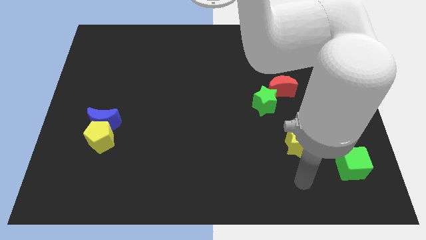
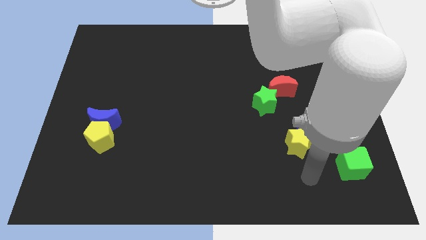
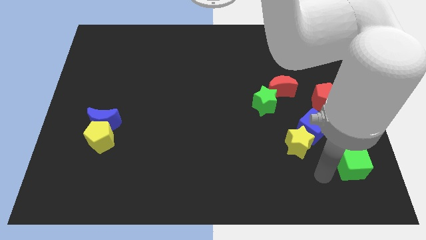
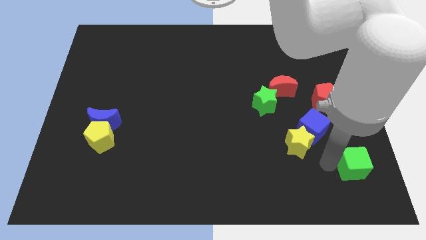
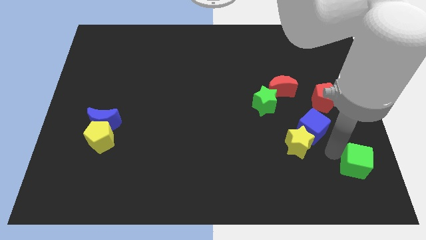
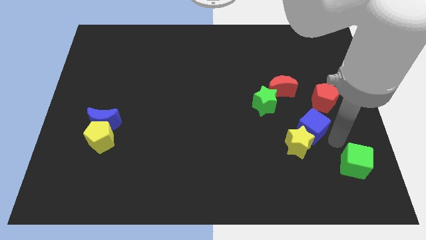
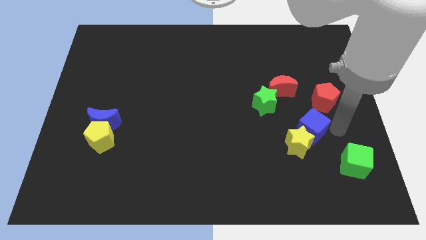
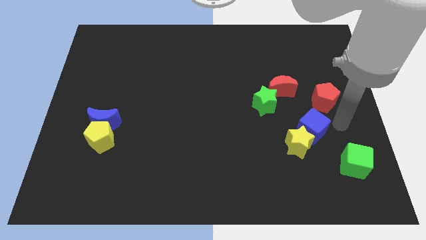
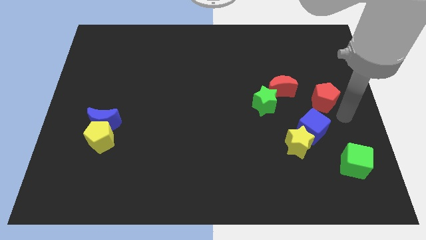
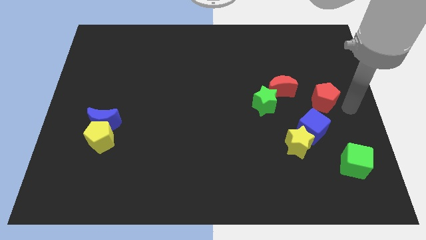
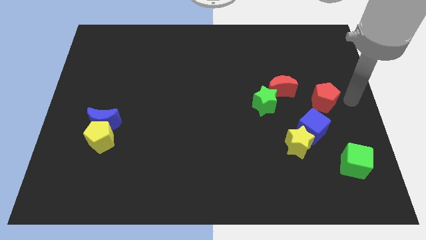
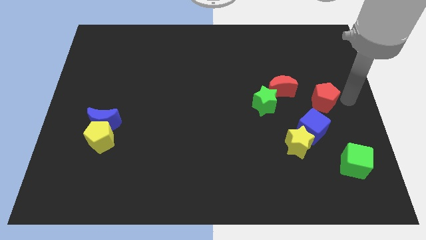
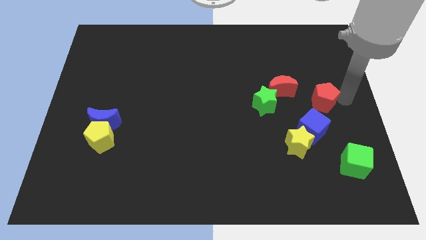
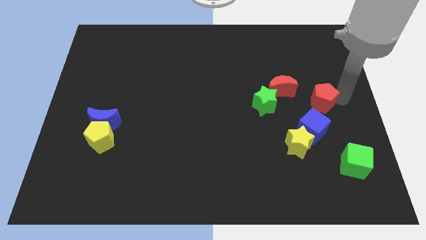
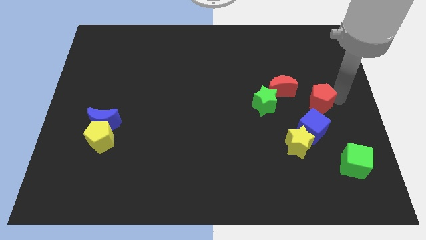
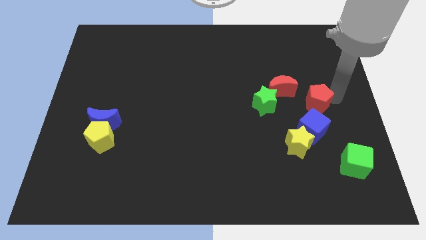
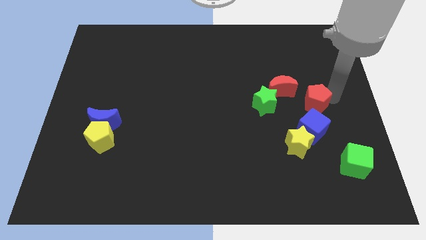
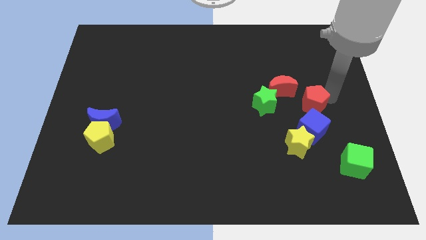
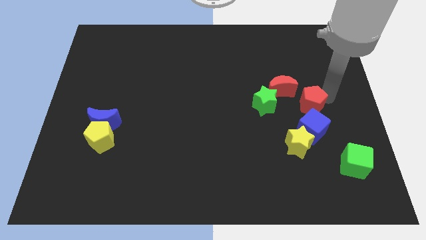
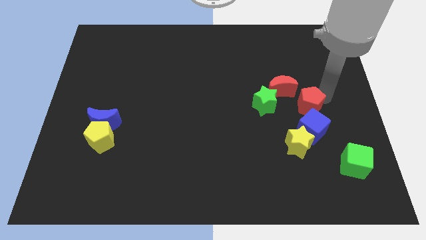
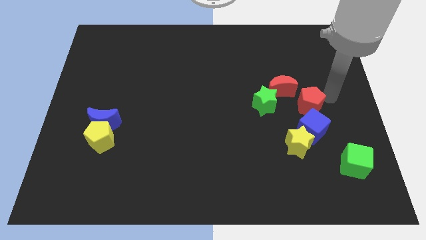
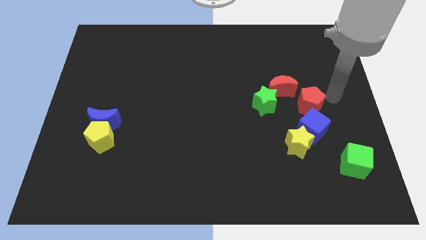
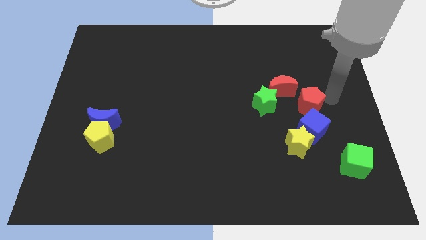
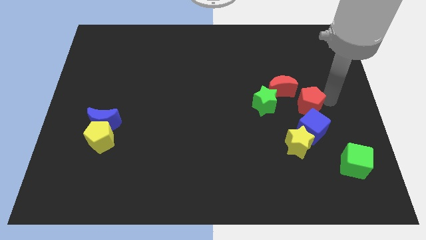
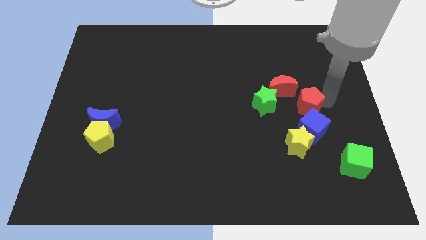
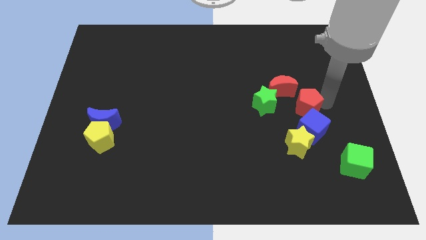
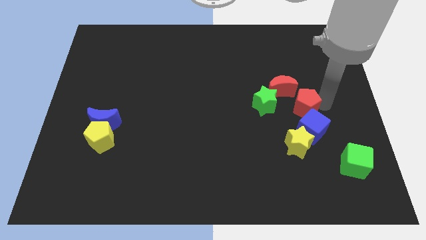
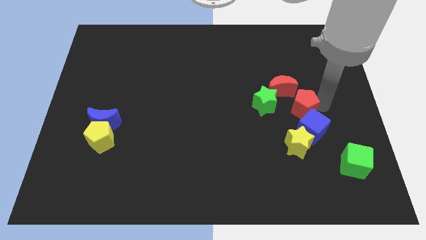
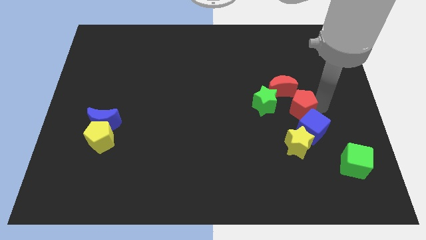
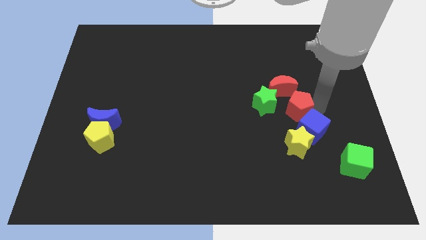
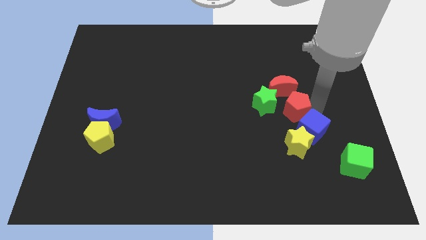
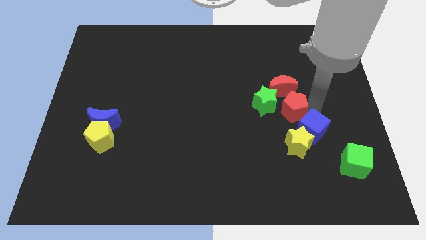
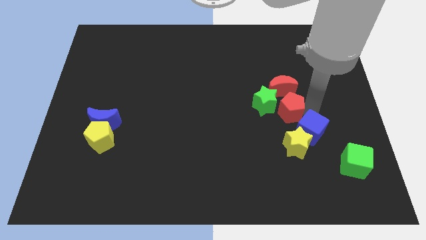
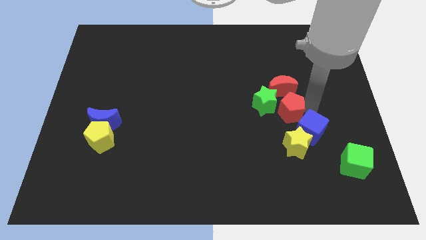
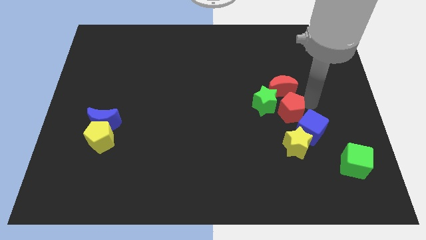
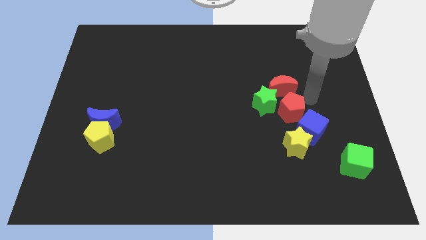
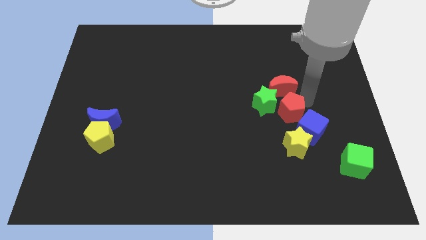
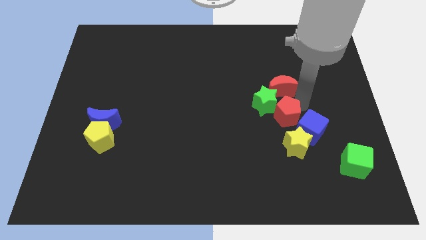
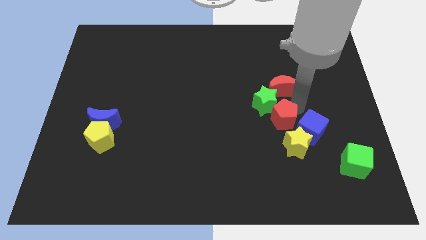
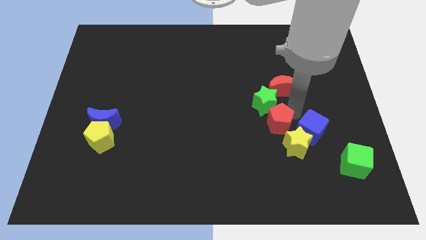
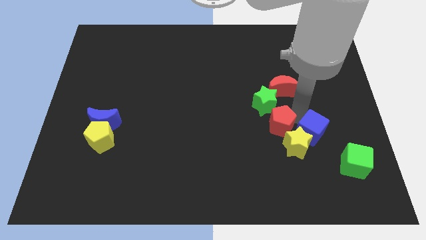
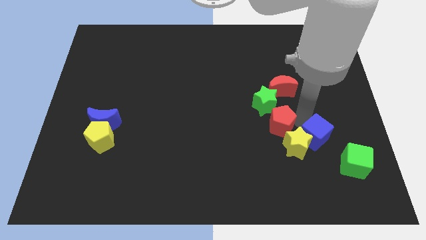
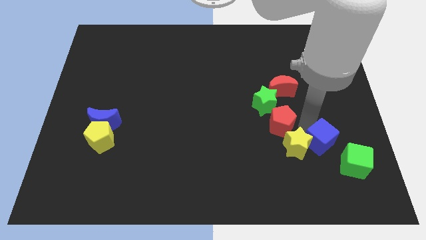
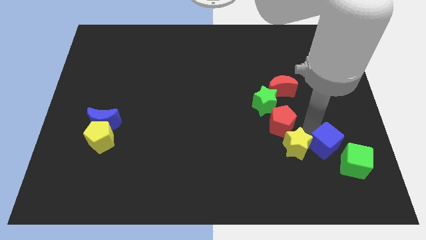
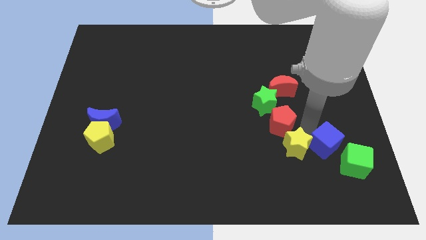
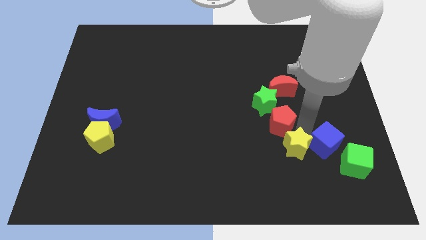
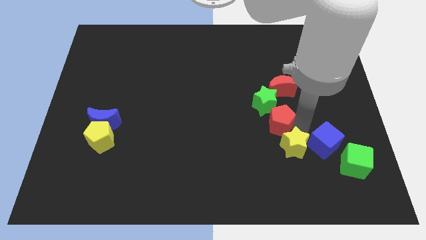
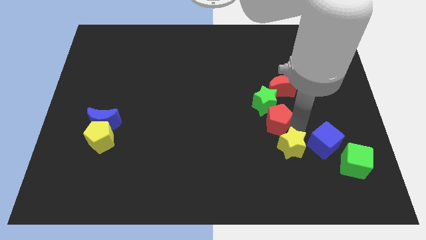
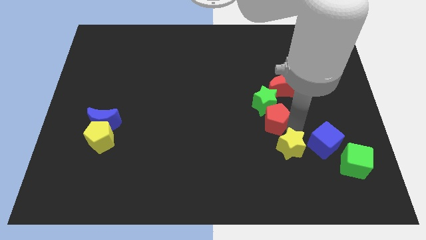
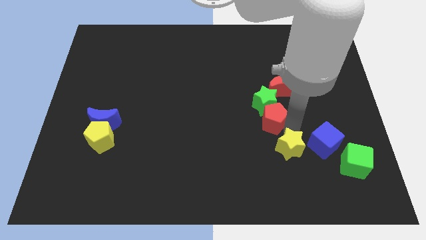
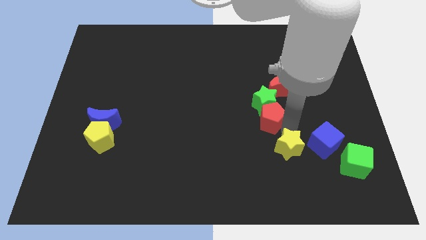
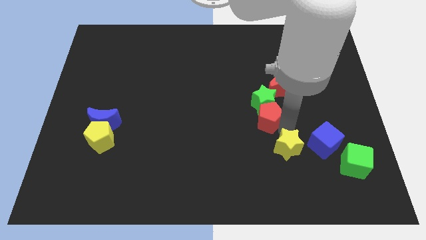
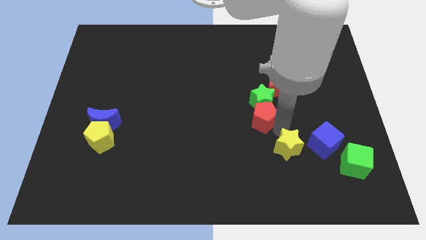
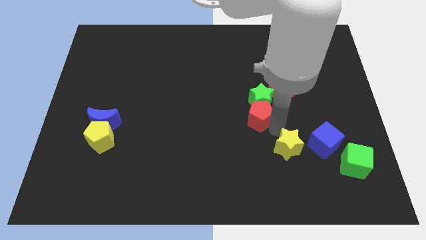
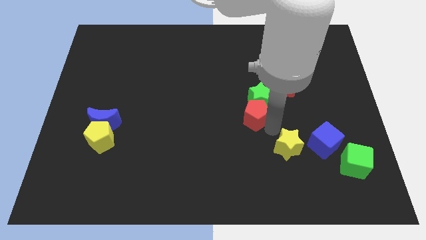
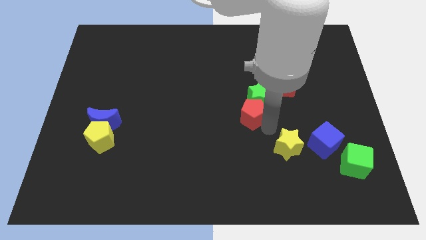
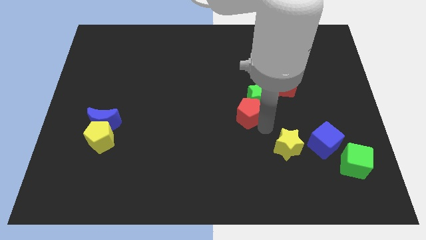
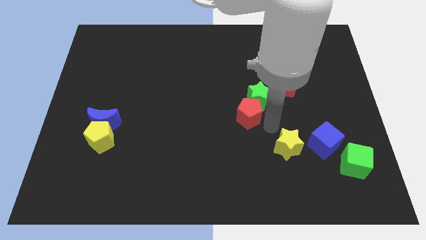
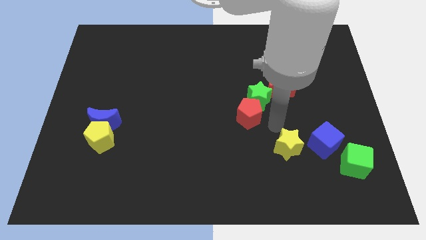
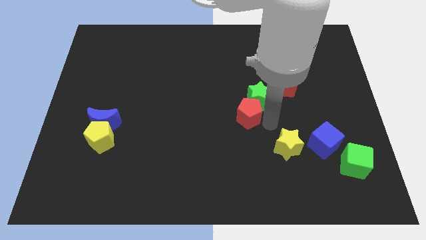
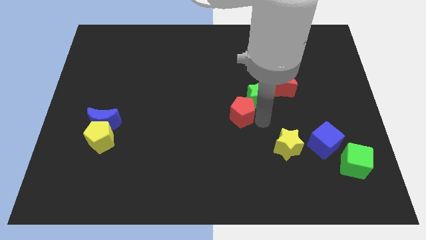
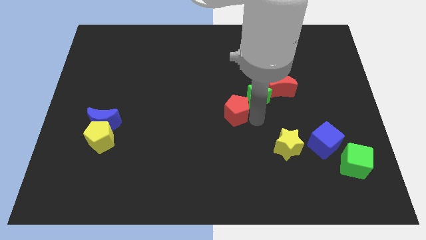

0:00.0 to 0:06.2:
push the red pentagon to the left
